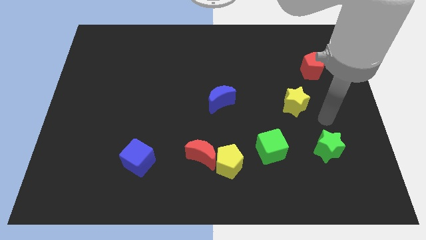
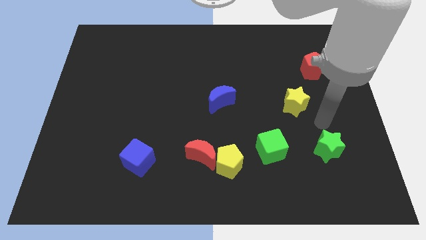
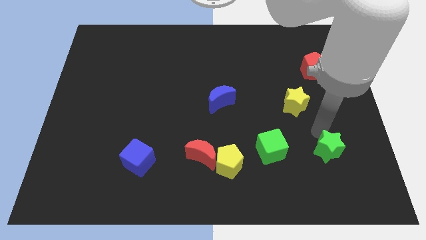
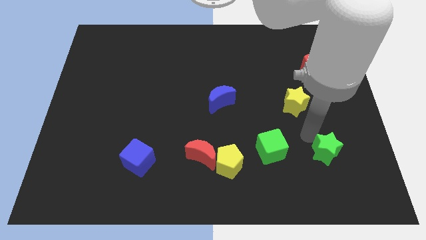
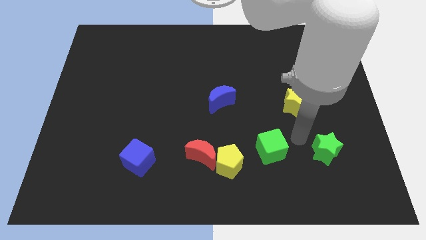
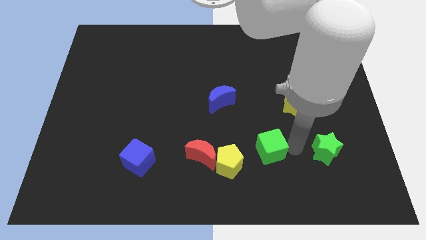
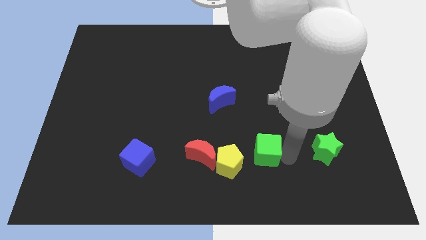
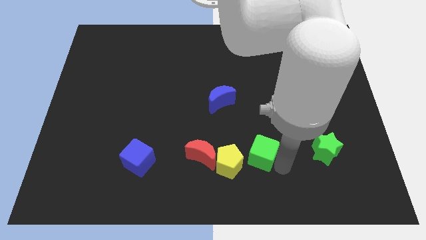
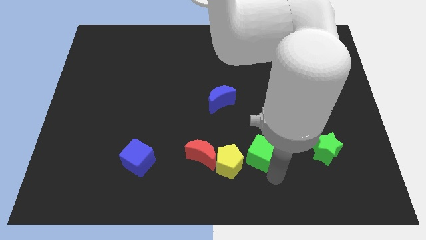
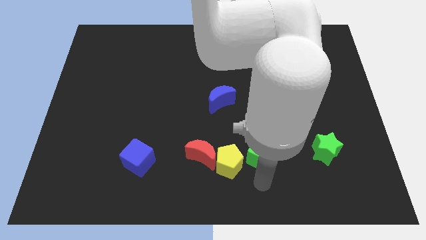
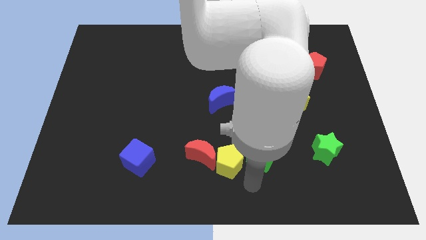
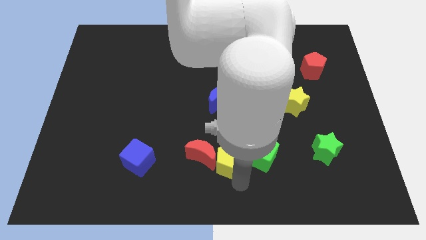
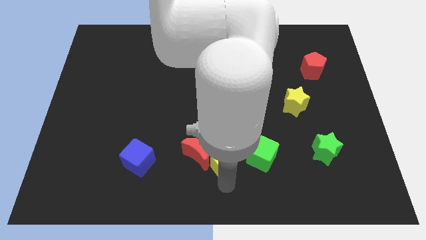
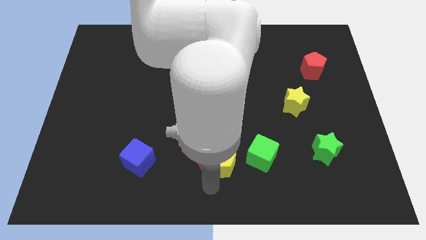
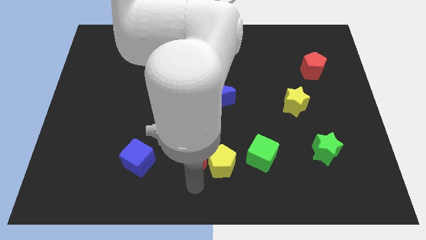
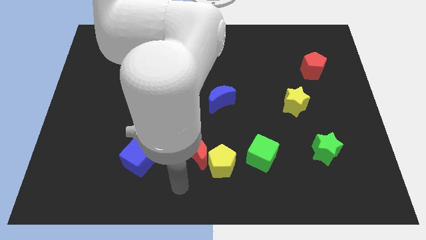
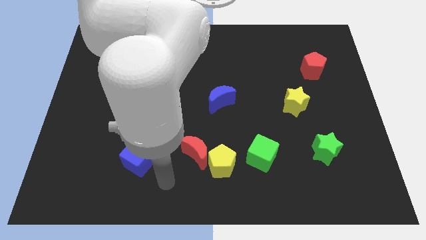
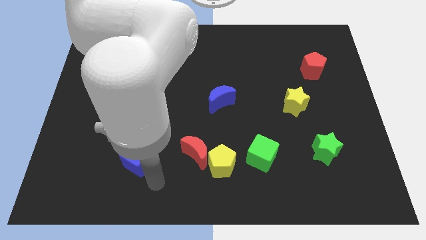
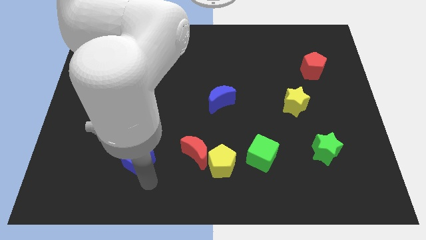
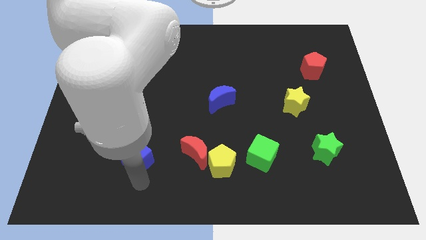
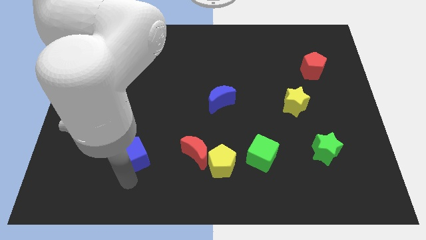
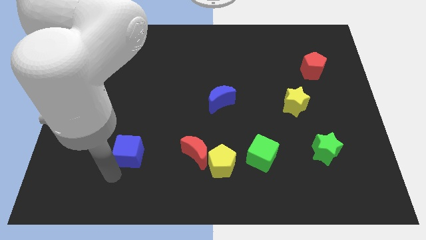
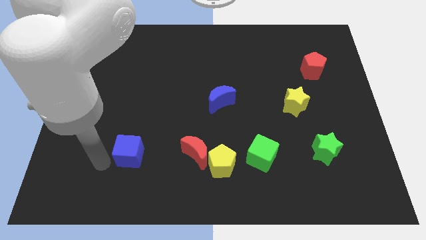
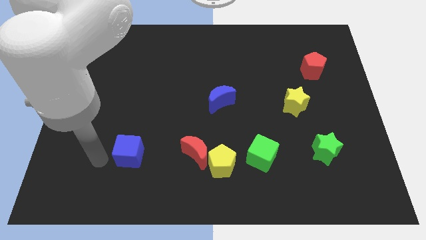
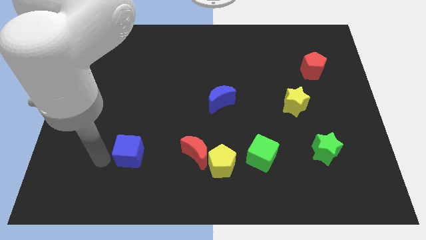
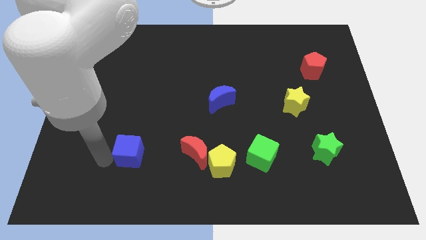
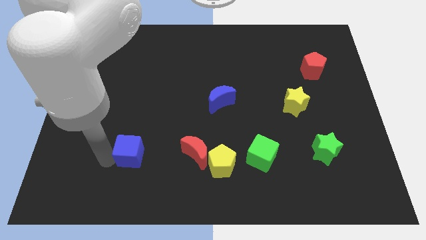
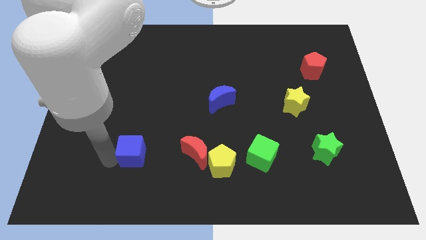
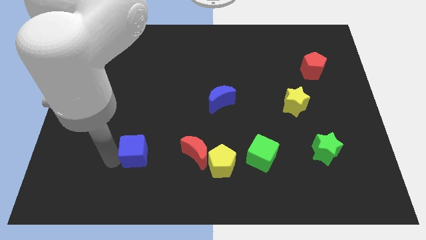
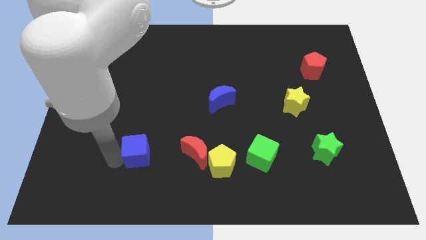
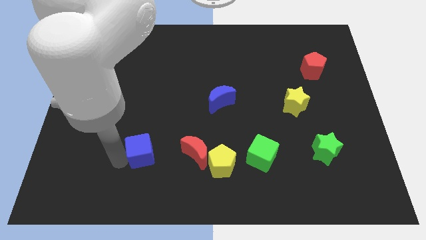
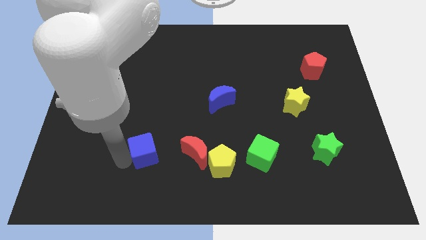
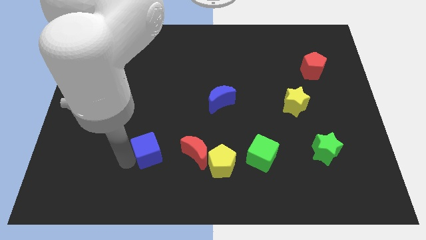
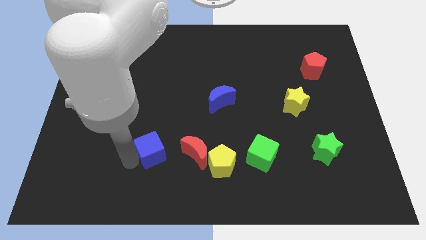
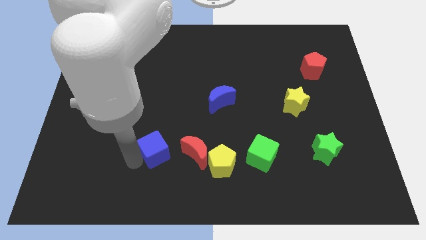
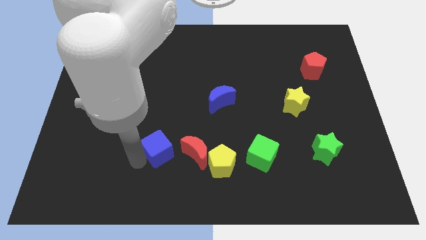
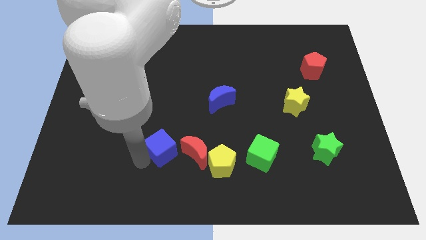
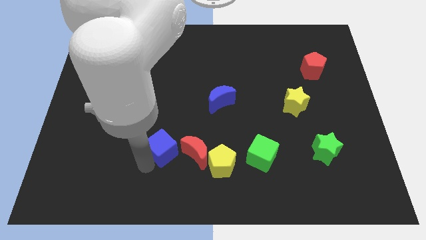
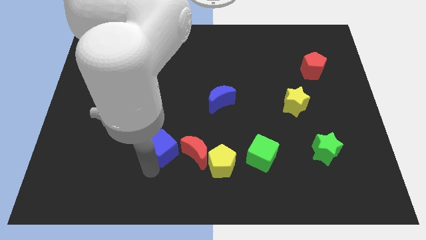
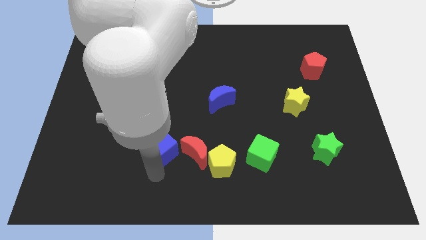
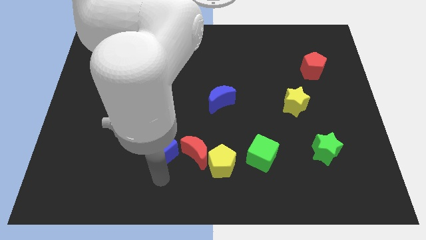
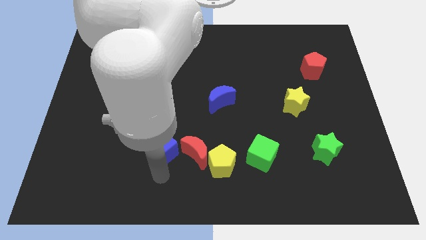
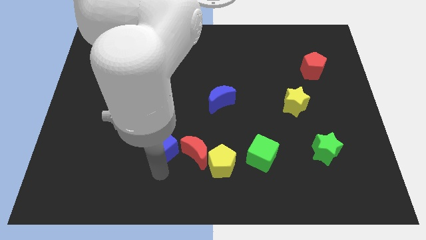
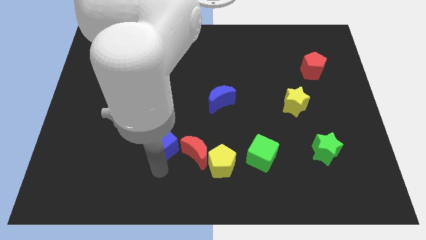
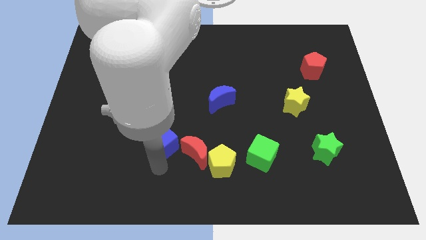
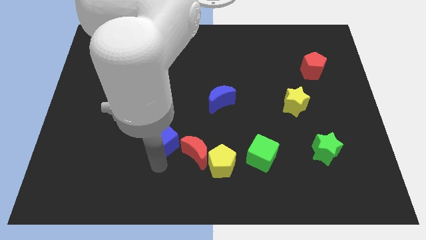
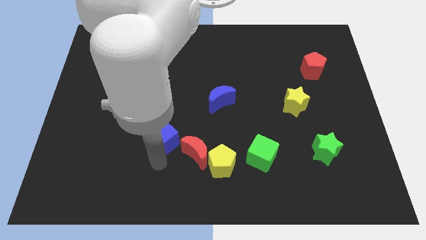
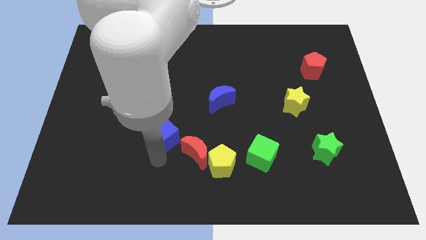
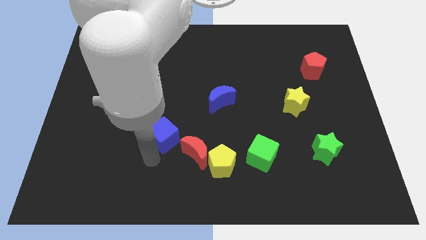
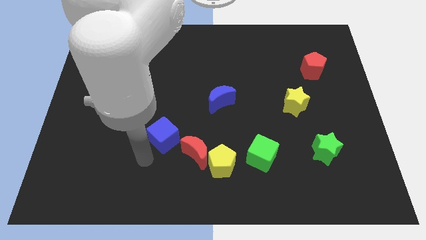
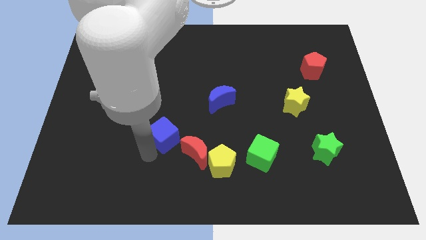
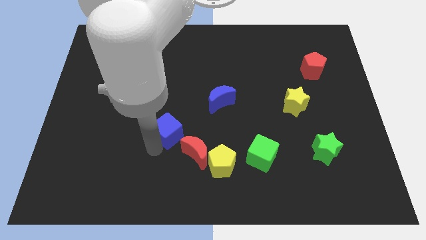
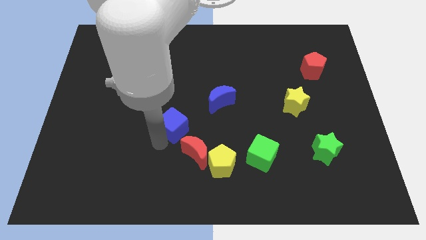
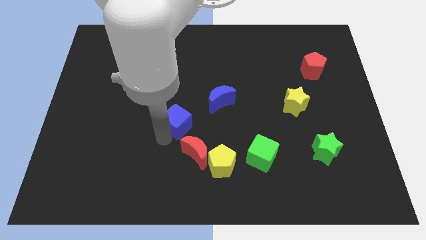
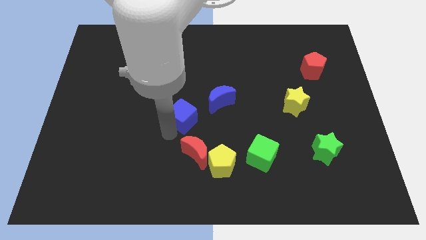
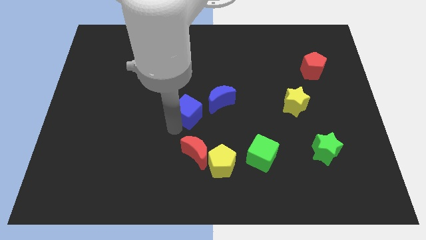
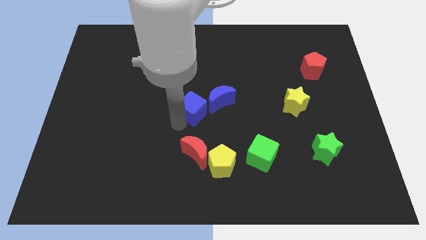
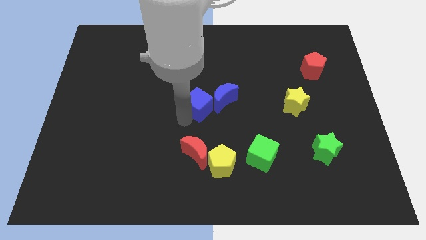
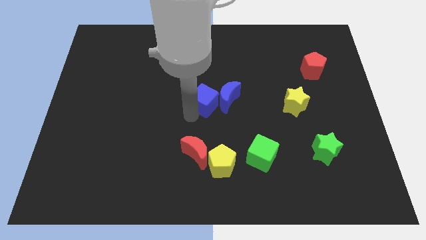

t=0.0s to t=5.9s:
move the blue cube diagonally upwards and to the right

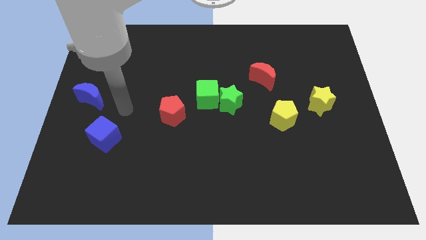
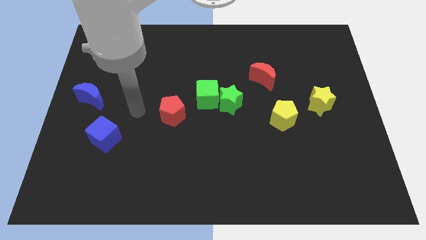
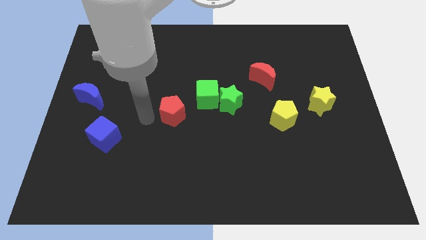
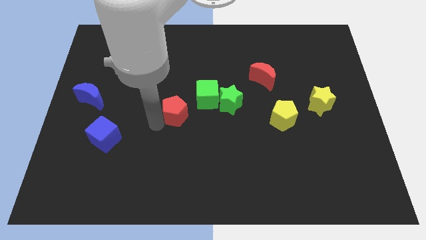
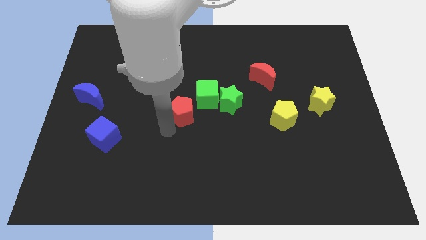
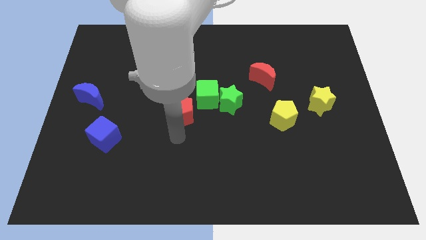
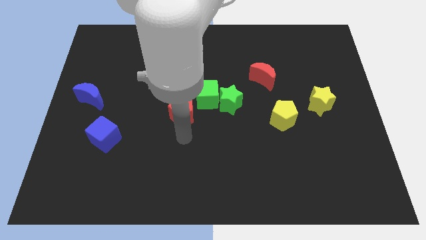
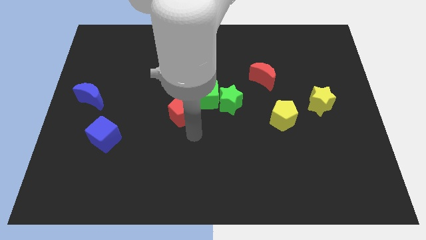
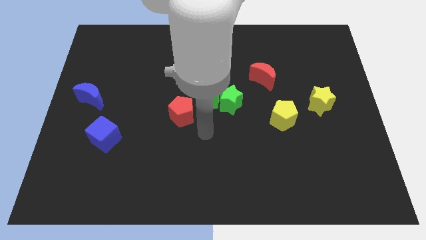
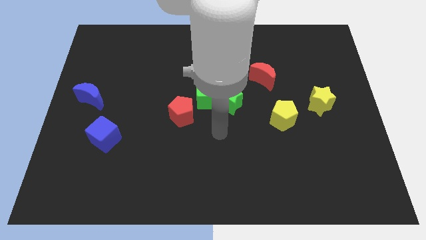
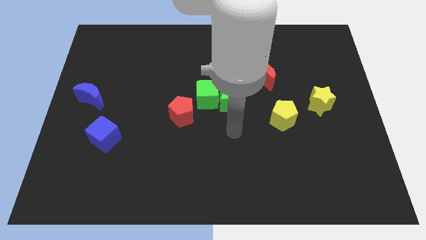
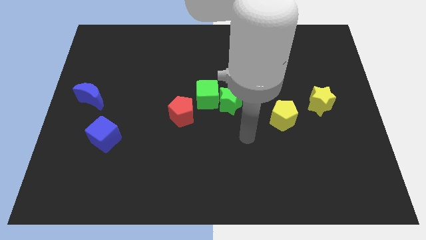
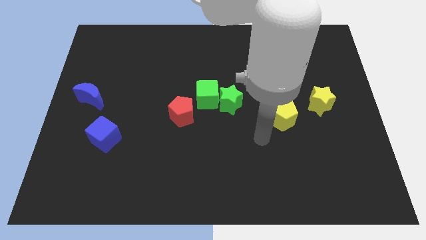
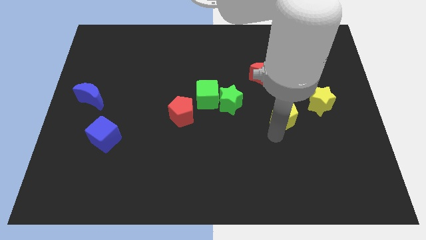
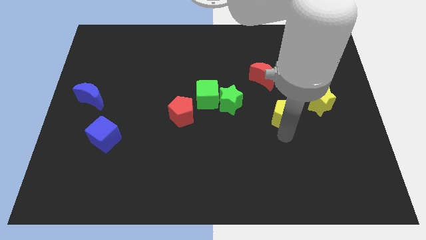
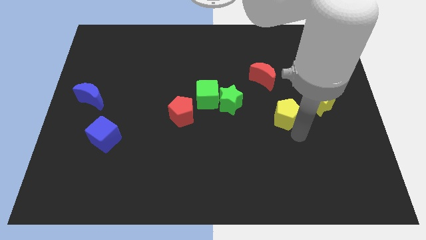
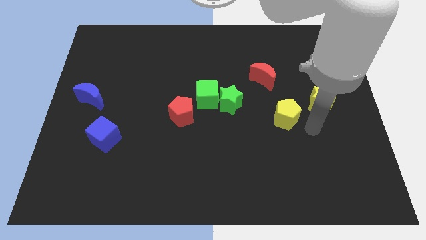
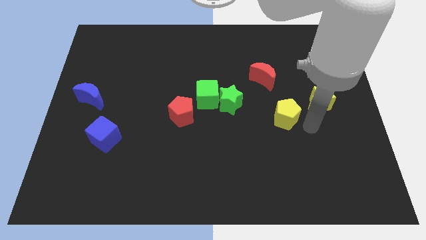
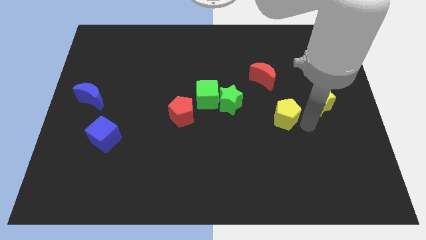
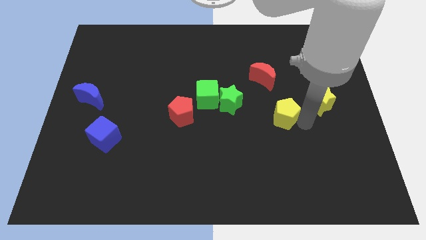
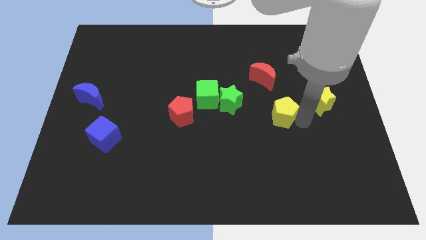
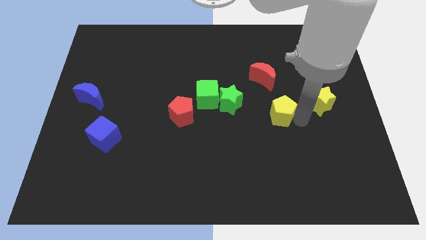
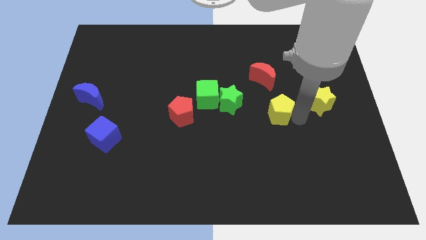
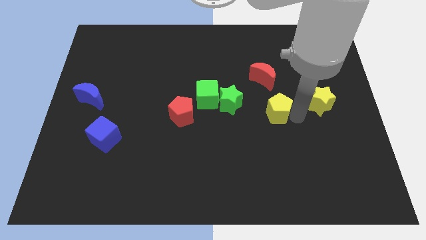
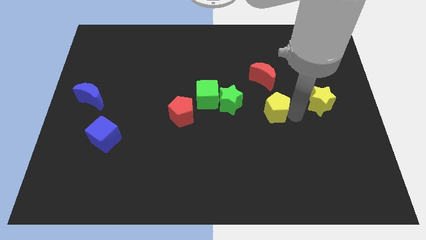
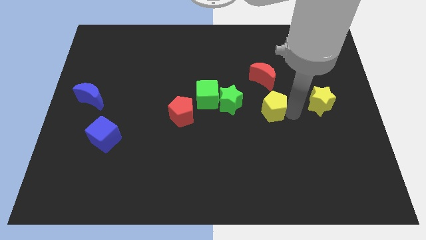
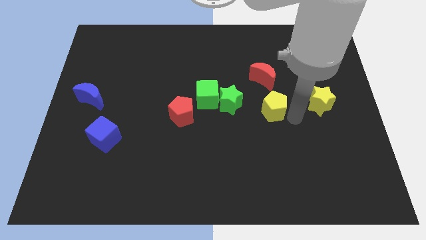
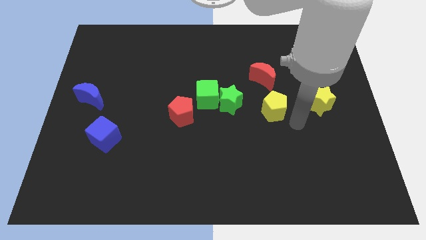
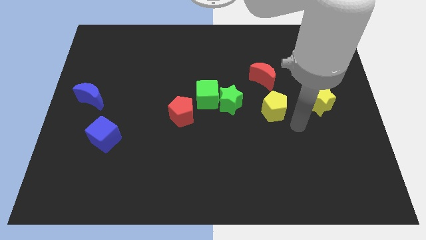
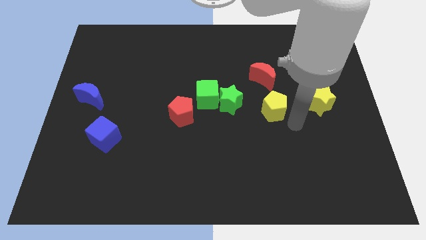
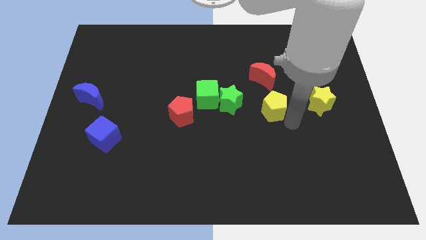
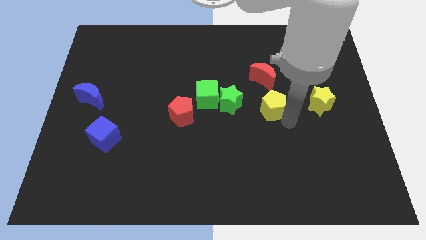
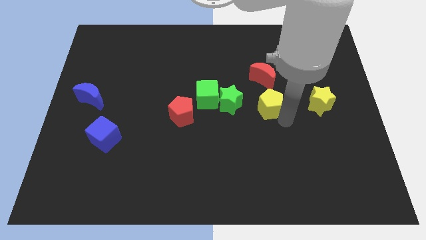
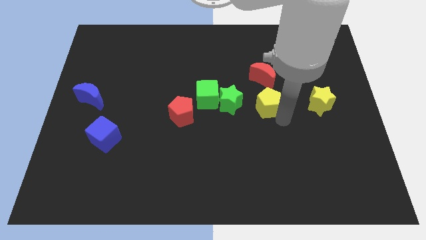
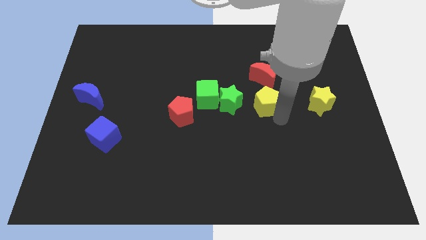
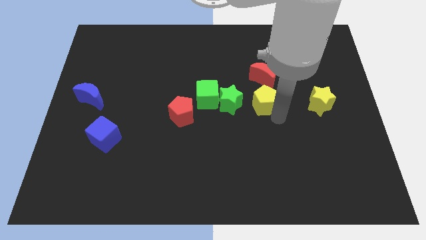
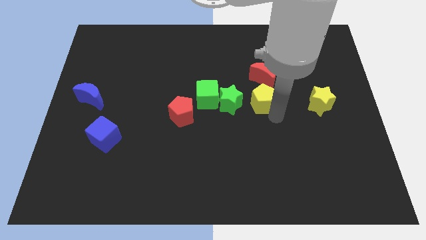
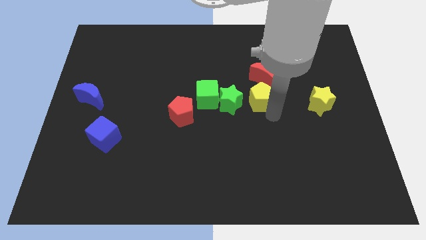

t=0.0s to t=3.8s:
slightly slide the yellow pentagon up and left
